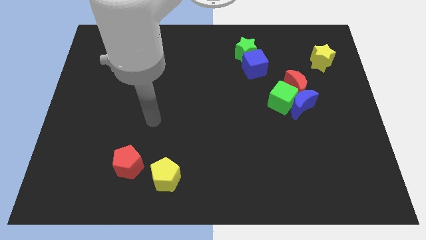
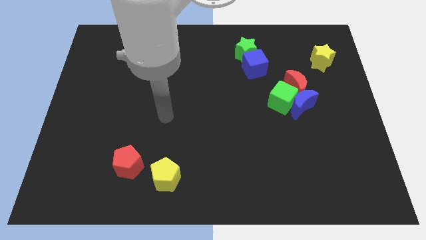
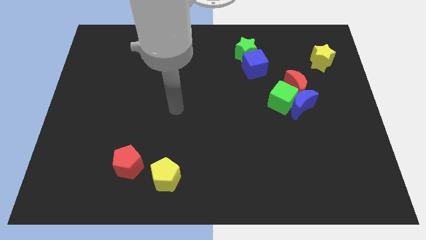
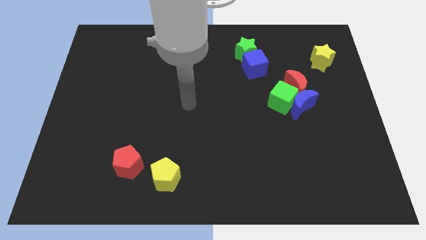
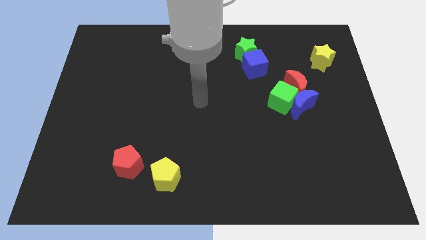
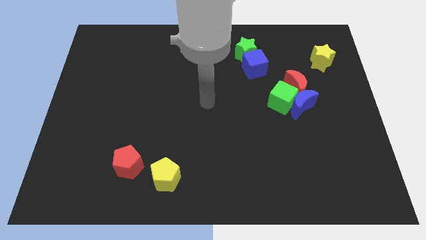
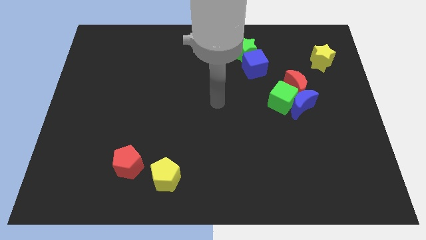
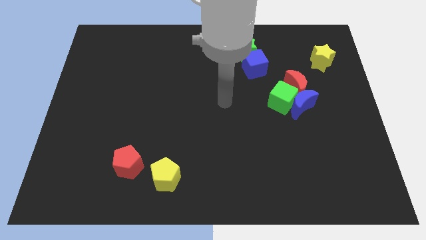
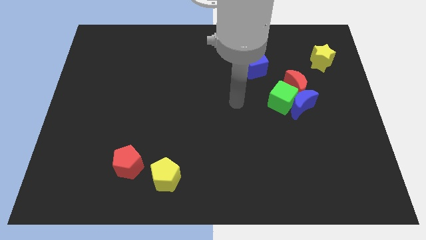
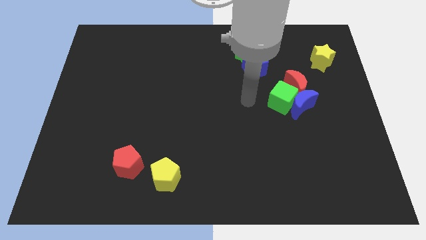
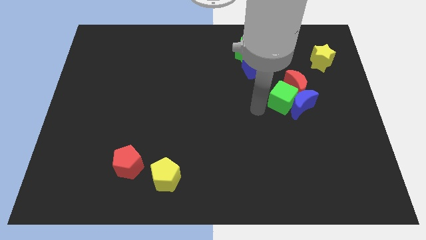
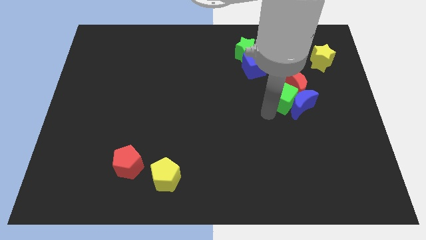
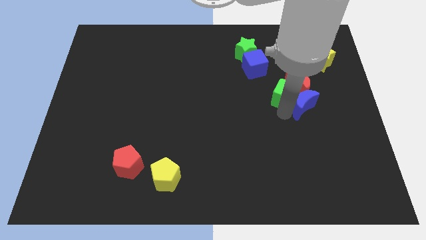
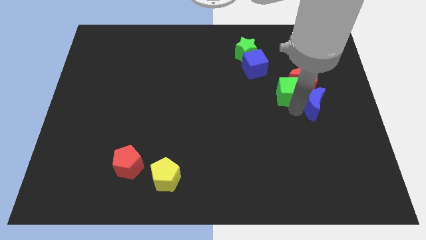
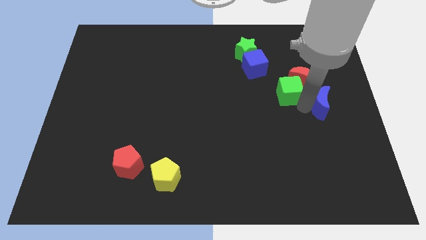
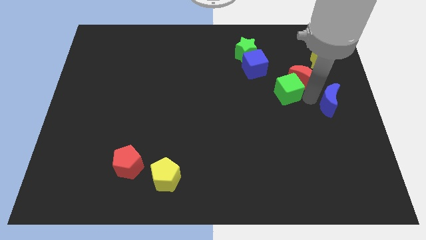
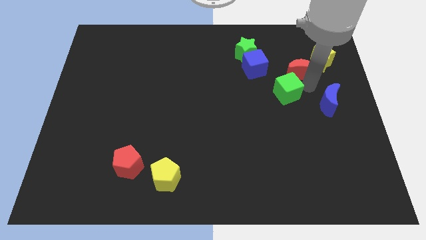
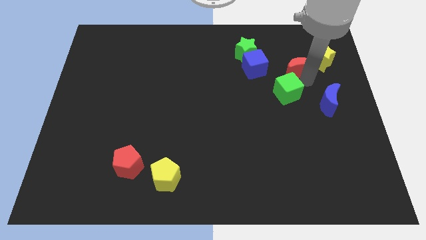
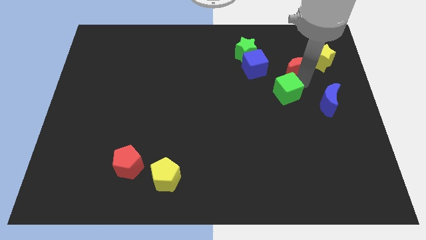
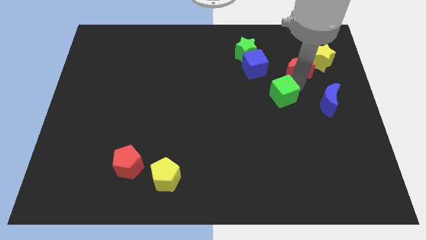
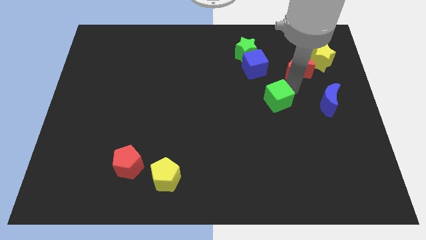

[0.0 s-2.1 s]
separate the green cube from the blue moon and red moon

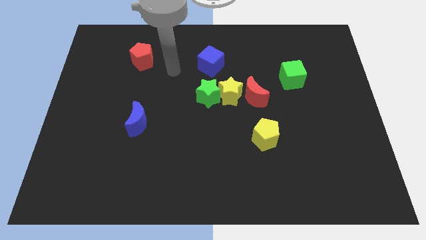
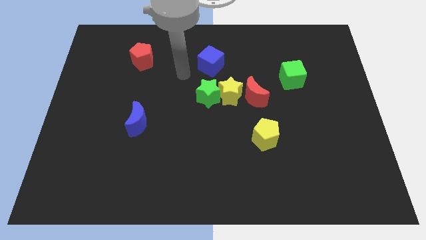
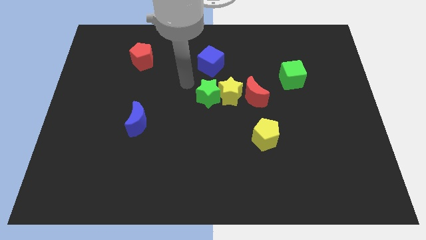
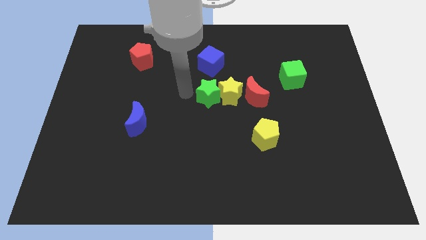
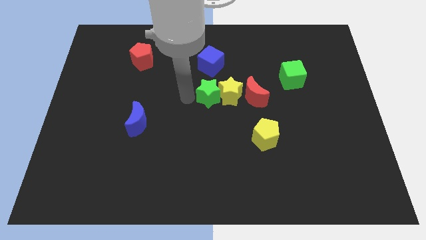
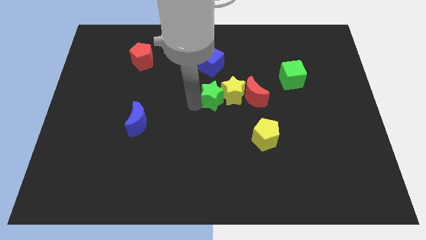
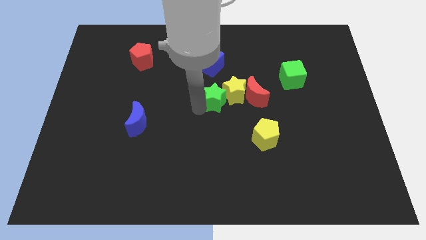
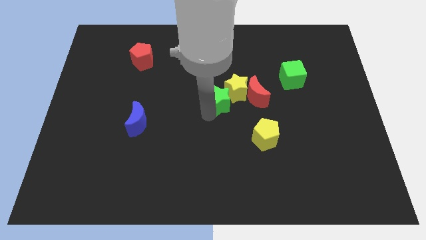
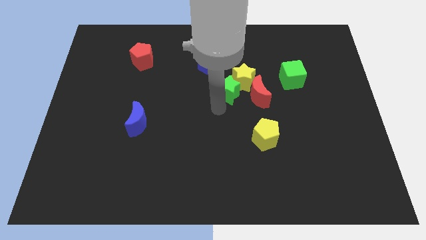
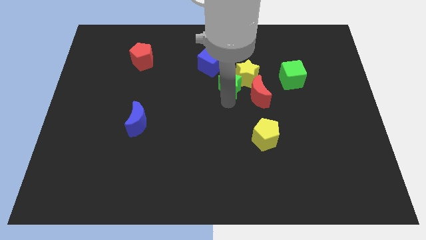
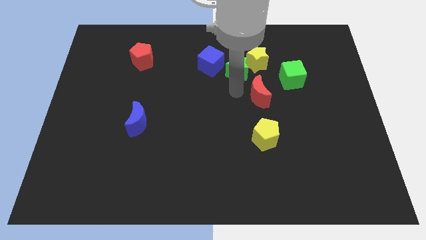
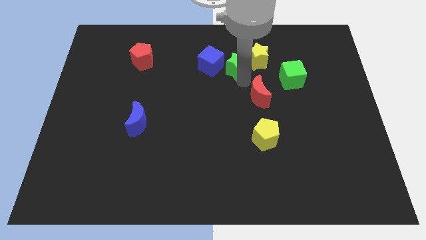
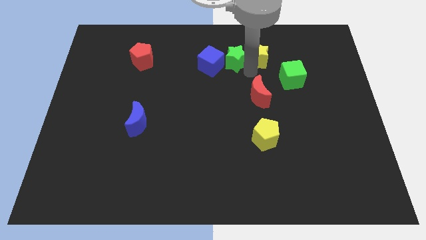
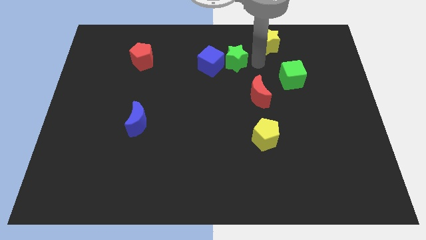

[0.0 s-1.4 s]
pull the green star apart from the yellow star

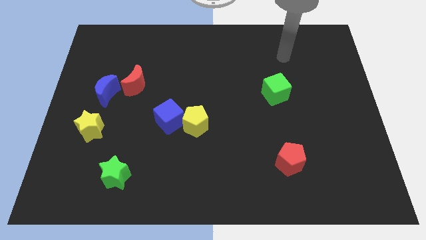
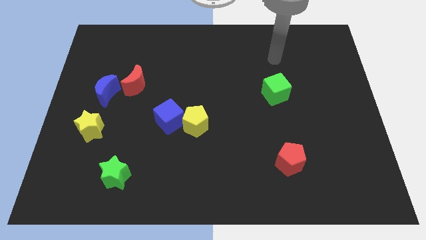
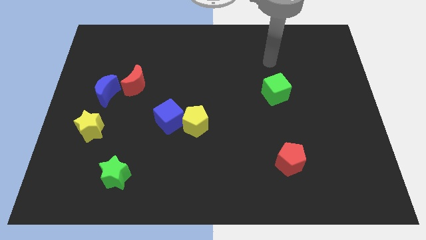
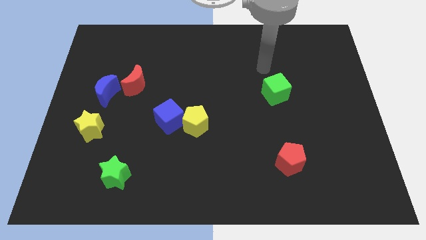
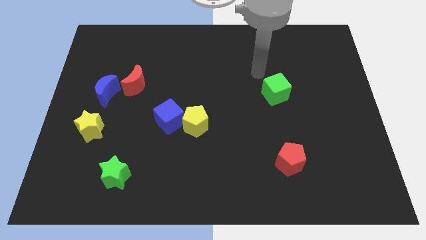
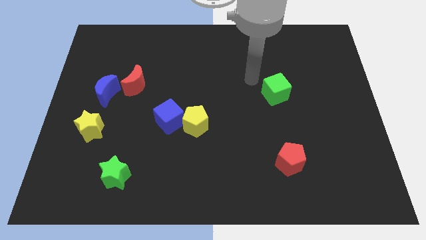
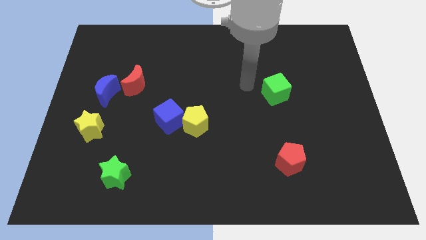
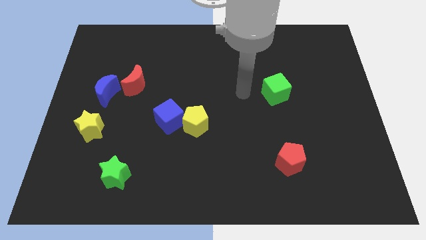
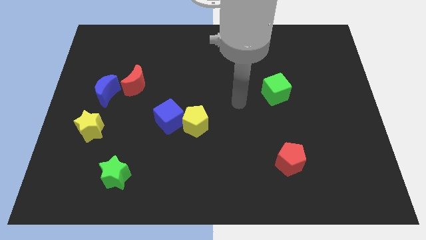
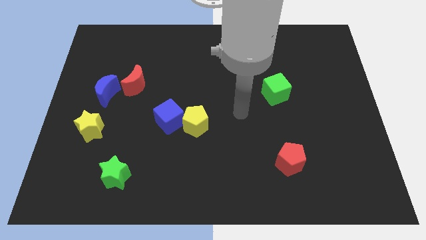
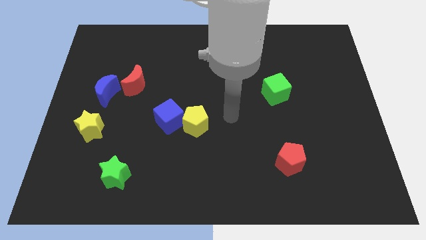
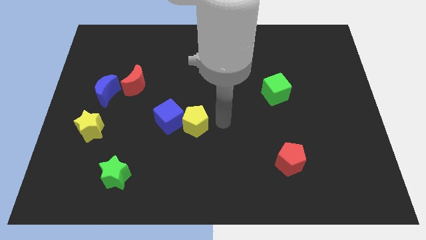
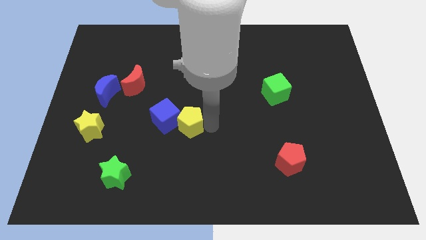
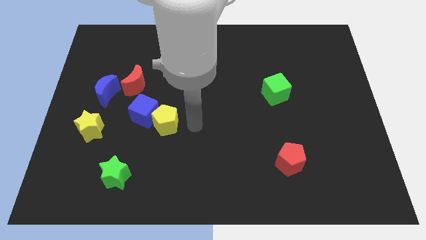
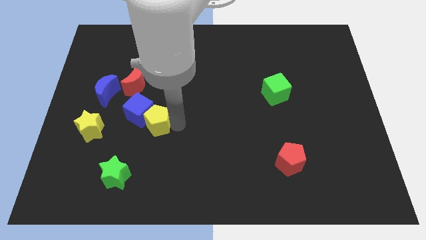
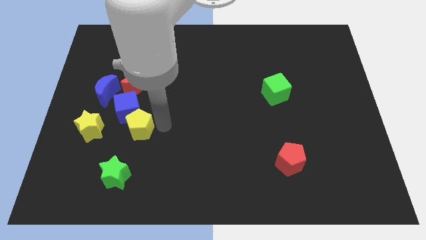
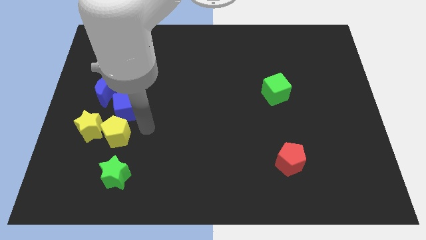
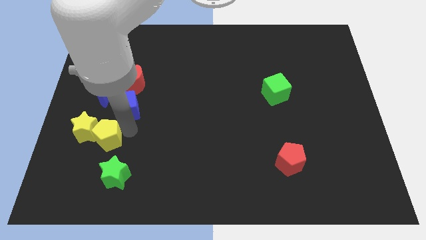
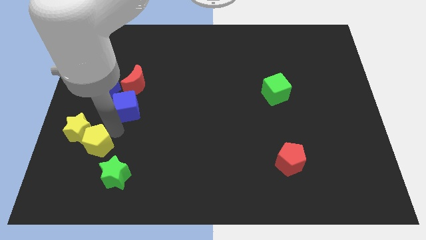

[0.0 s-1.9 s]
separate the blue cube from the yellow pentagon

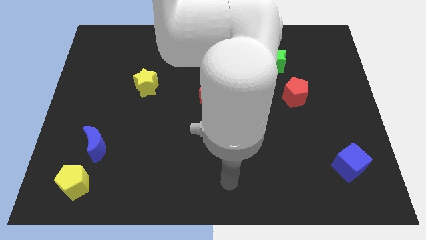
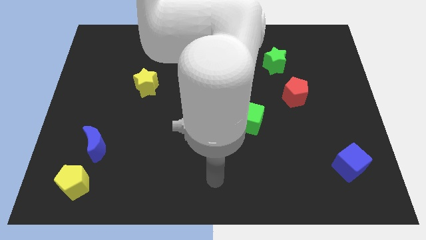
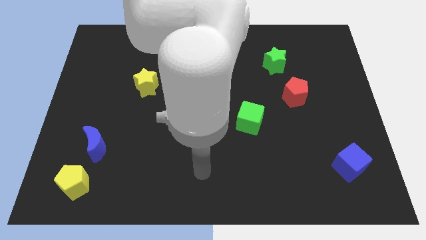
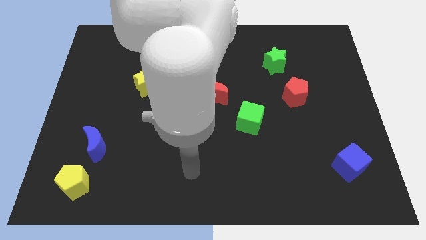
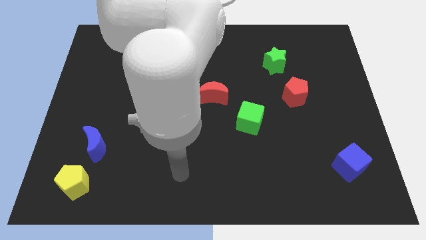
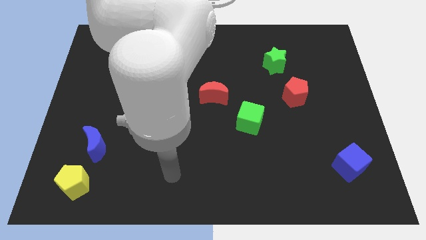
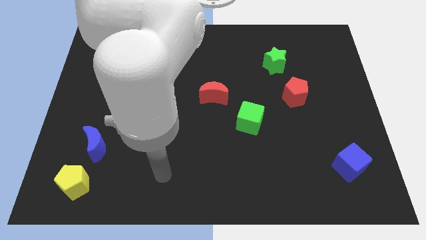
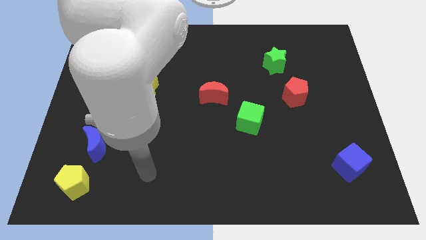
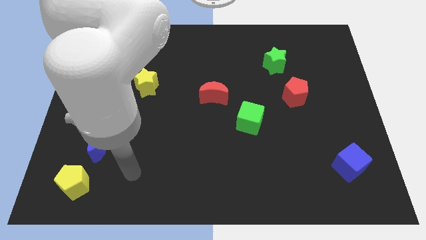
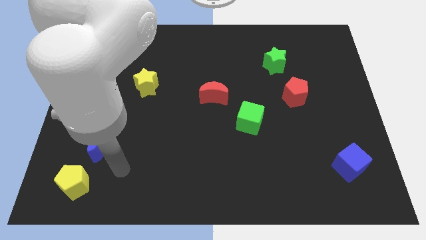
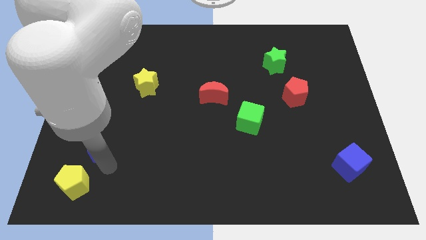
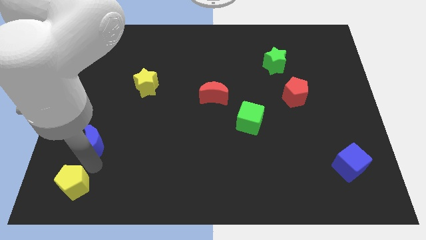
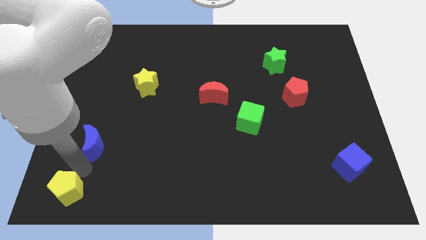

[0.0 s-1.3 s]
move the blue moon away from the yellow pentagon

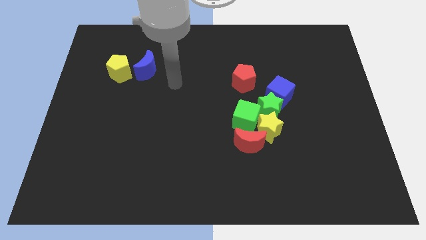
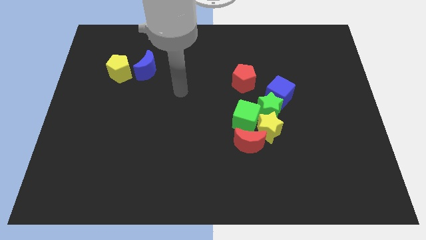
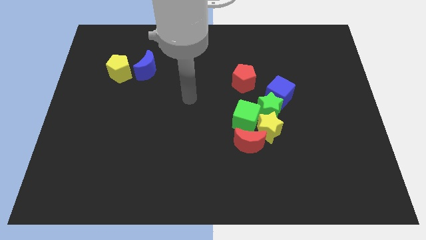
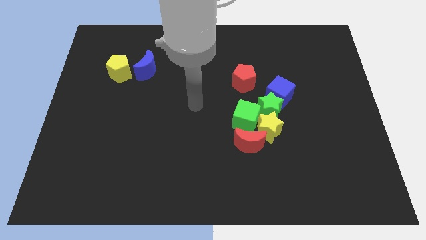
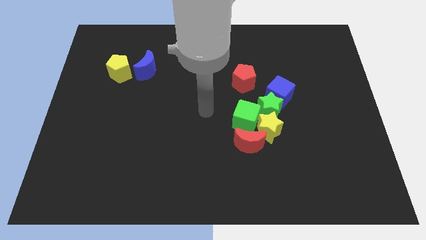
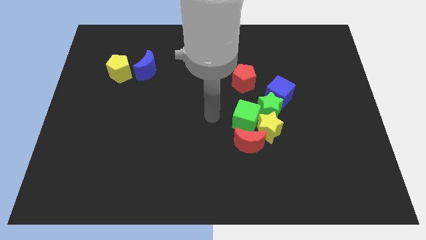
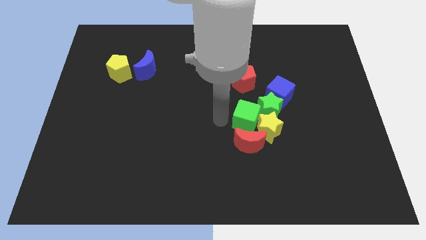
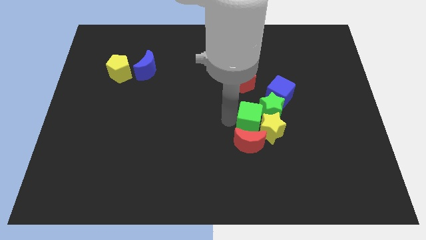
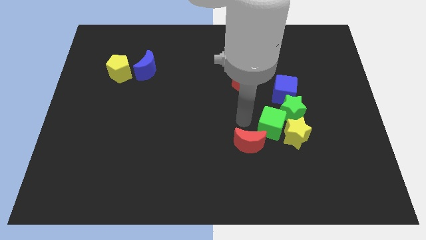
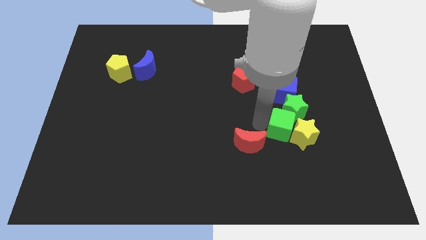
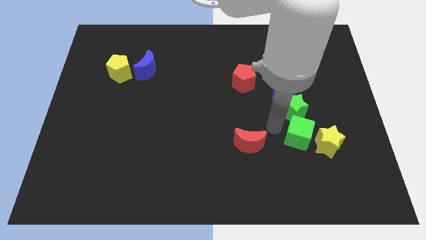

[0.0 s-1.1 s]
move the yellow star away from the clump

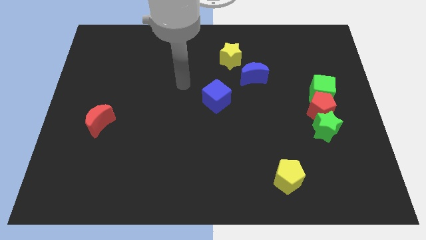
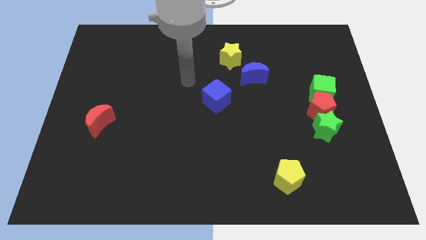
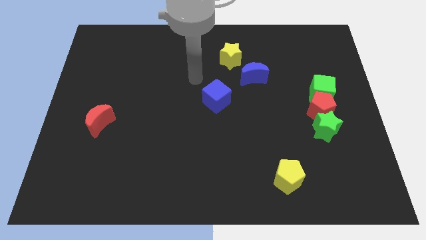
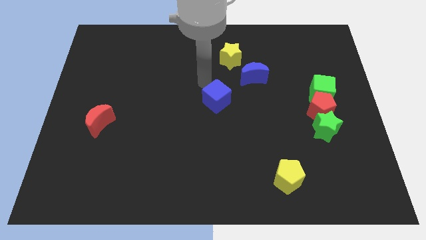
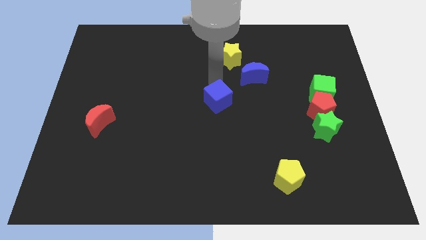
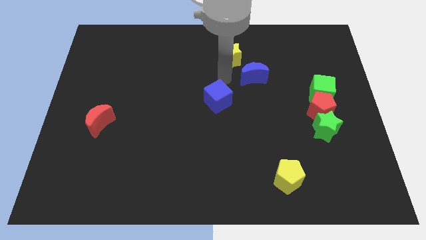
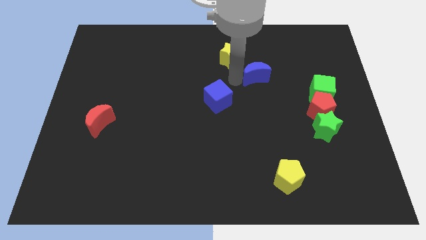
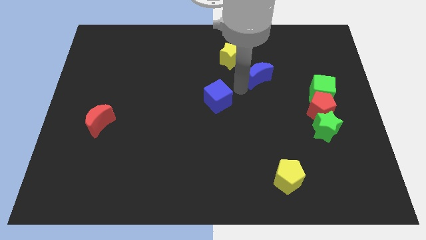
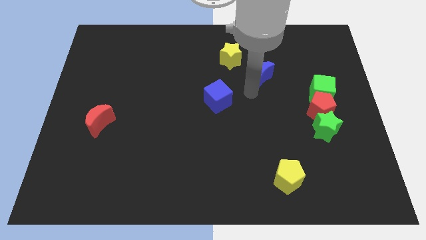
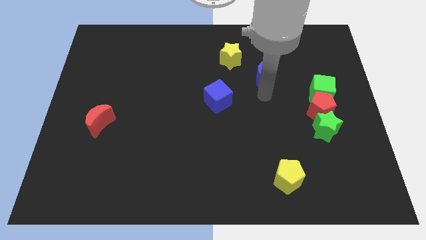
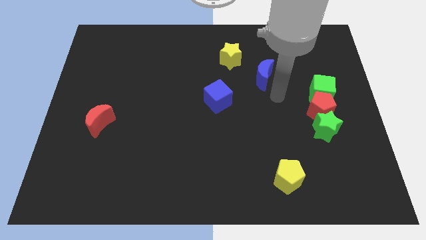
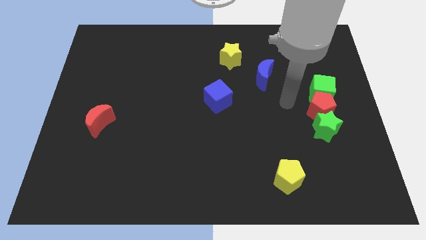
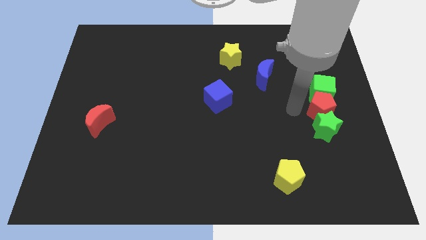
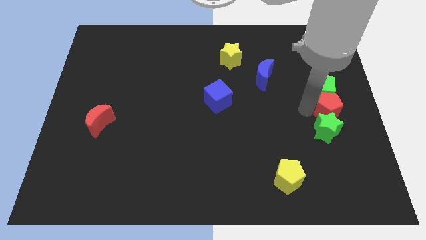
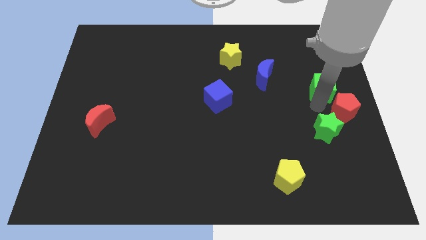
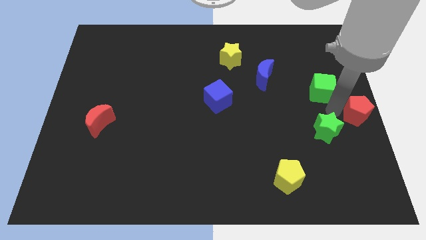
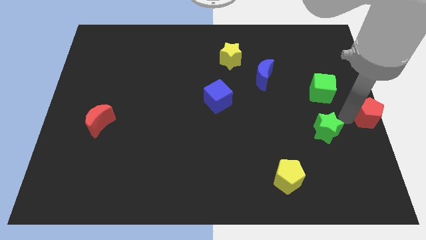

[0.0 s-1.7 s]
move the green star away from the red pentagon
